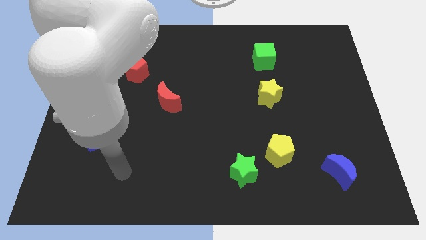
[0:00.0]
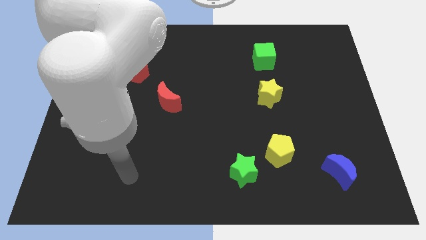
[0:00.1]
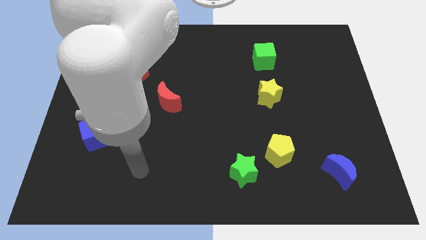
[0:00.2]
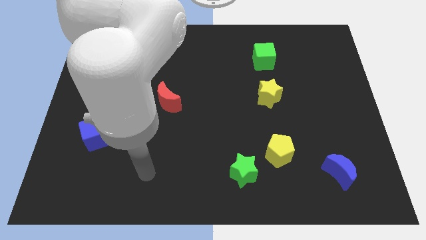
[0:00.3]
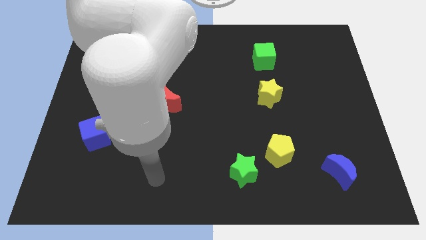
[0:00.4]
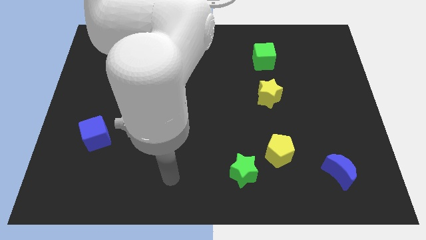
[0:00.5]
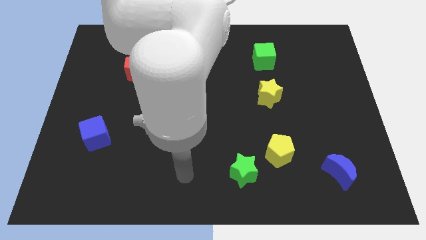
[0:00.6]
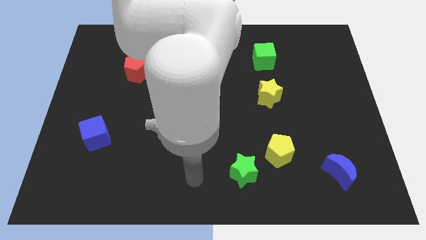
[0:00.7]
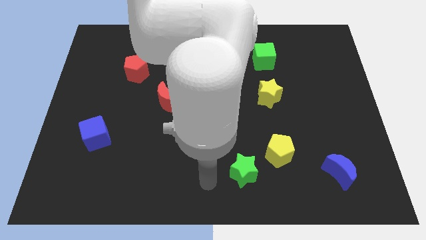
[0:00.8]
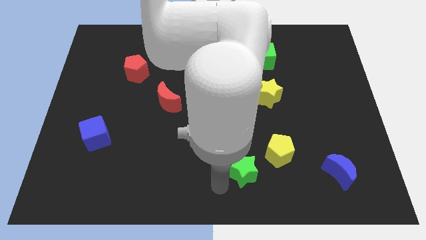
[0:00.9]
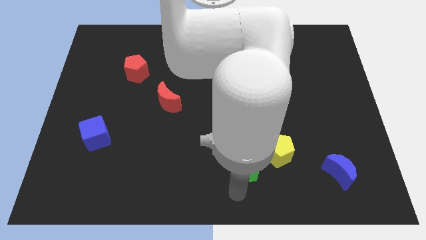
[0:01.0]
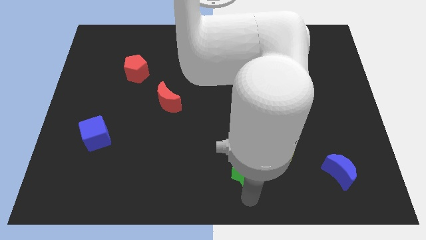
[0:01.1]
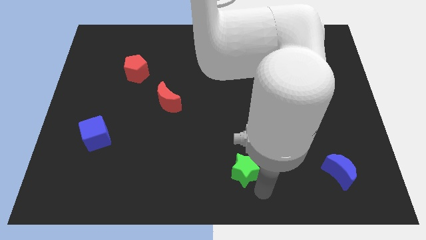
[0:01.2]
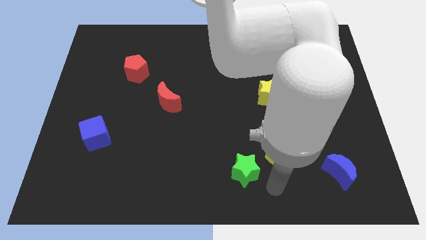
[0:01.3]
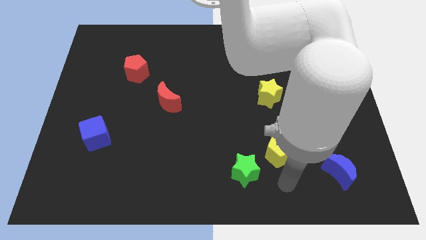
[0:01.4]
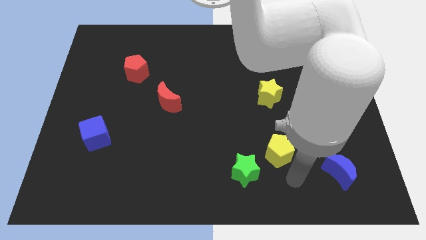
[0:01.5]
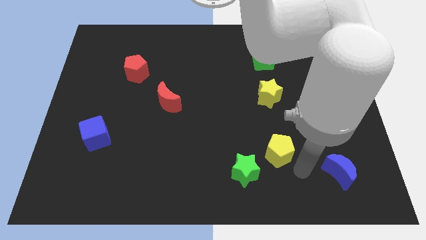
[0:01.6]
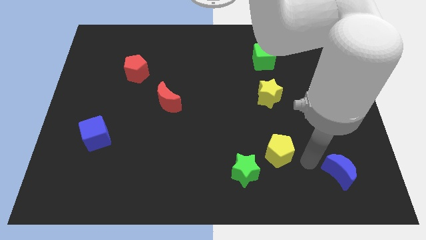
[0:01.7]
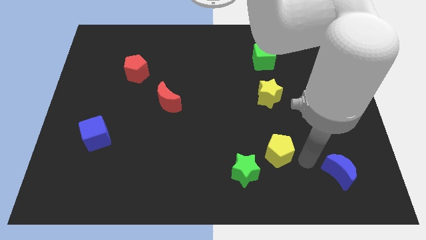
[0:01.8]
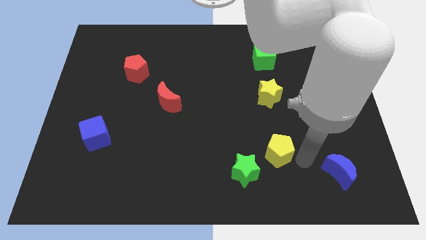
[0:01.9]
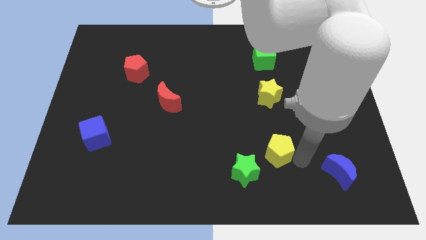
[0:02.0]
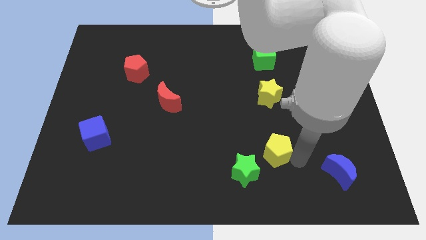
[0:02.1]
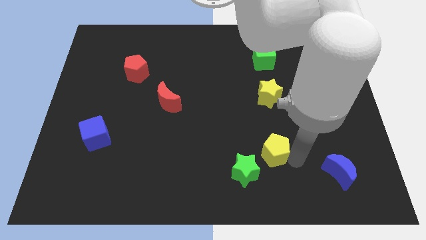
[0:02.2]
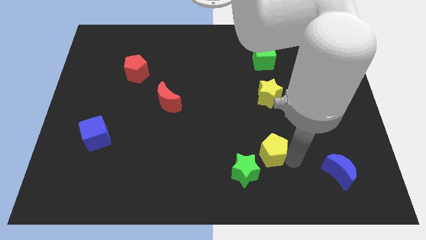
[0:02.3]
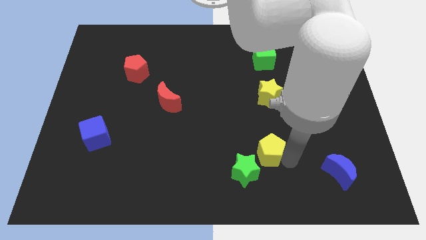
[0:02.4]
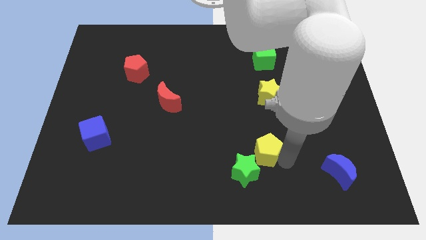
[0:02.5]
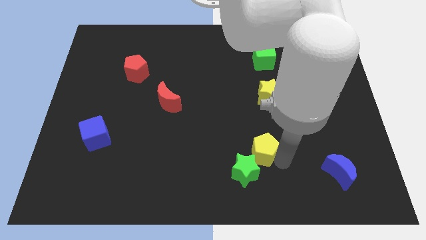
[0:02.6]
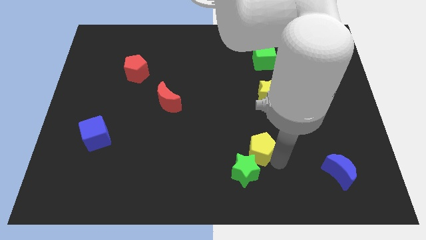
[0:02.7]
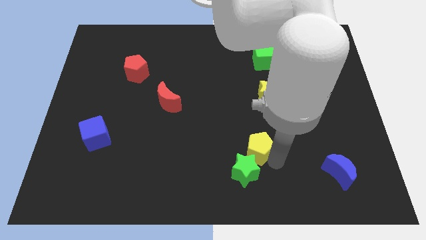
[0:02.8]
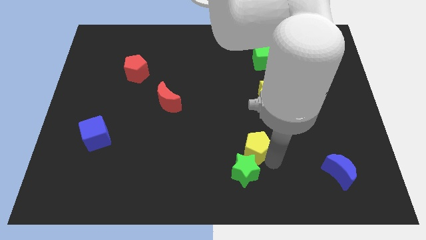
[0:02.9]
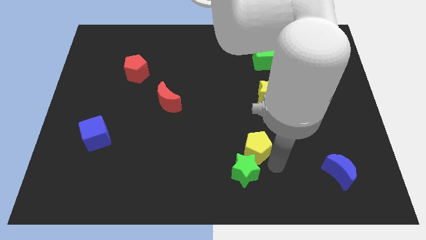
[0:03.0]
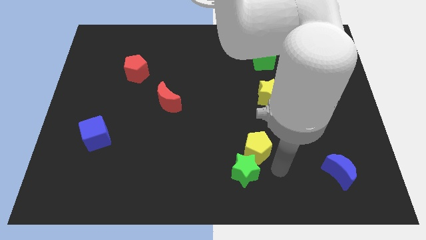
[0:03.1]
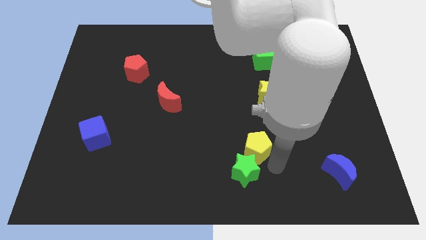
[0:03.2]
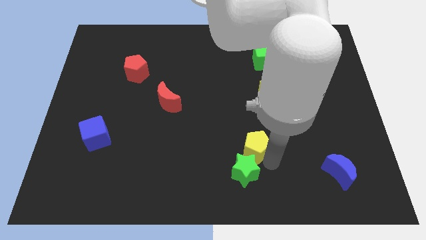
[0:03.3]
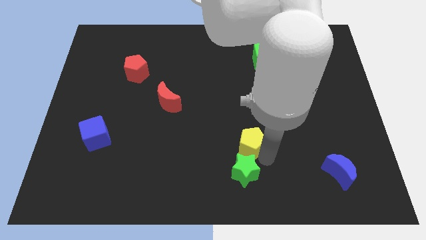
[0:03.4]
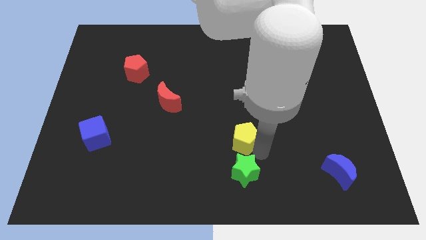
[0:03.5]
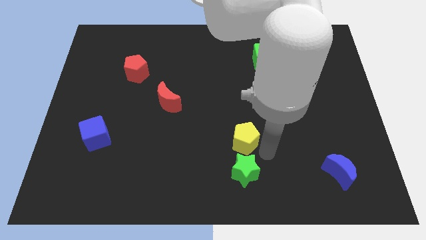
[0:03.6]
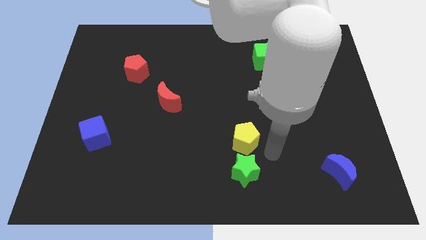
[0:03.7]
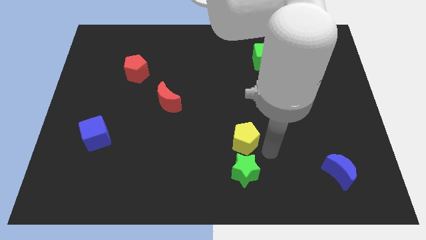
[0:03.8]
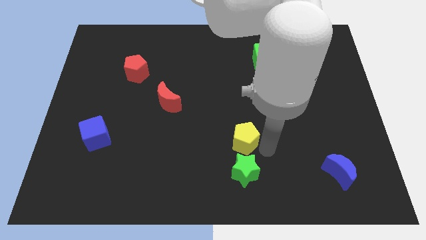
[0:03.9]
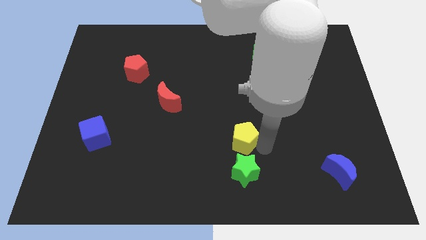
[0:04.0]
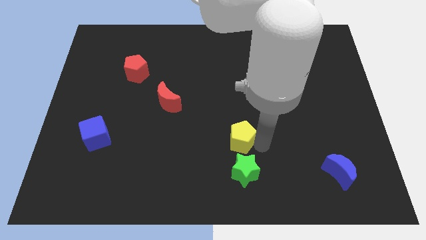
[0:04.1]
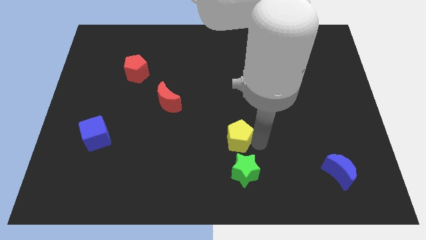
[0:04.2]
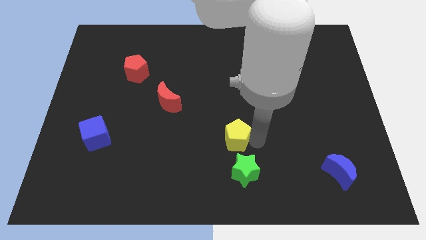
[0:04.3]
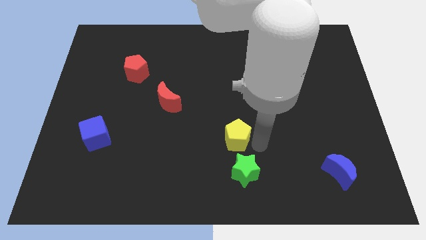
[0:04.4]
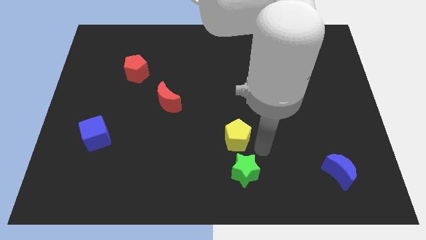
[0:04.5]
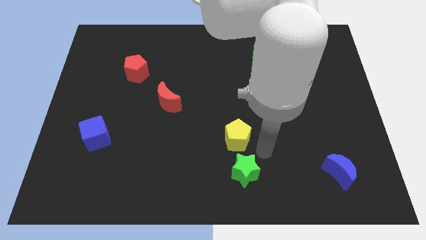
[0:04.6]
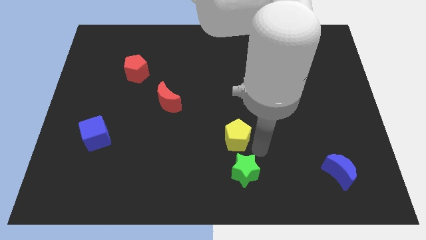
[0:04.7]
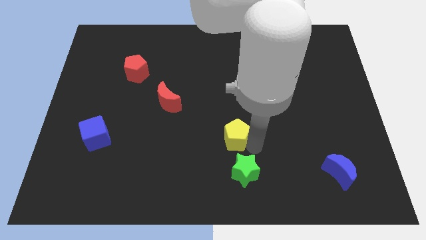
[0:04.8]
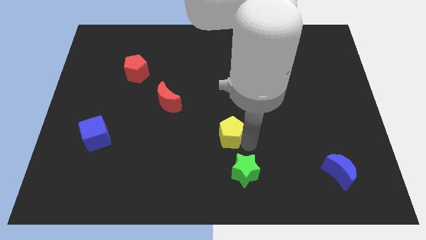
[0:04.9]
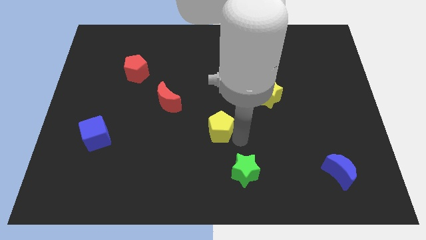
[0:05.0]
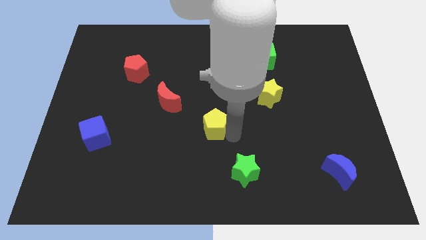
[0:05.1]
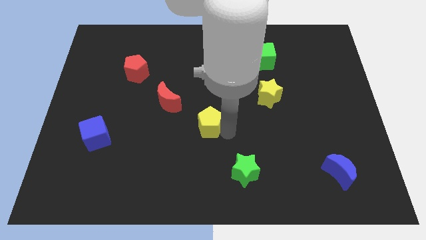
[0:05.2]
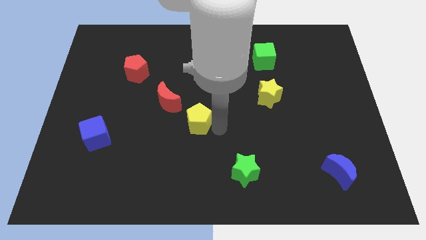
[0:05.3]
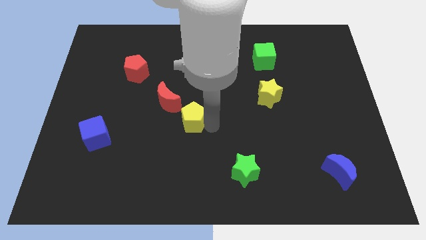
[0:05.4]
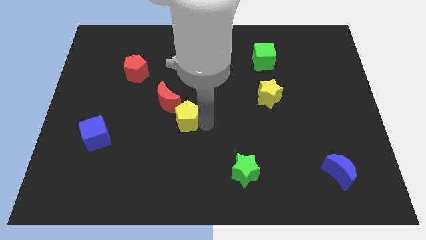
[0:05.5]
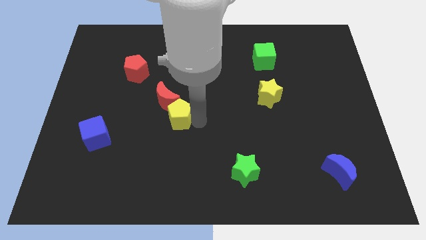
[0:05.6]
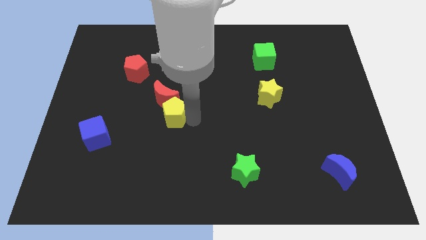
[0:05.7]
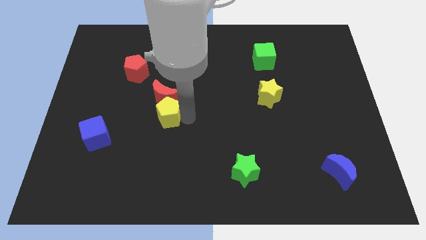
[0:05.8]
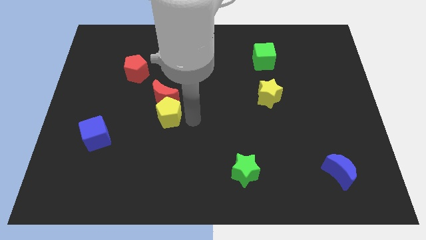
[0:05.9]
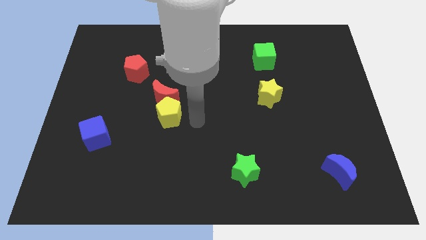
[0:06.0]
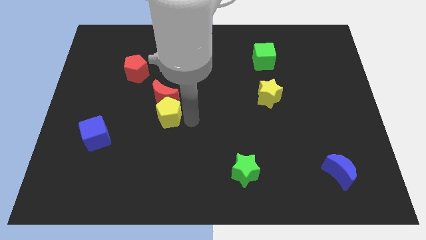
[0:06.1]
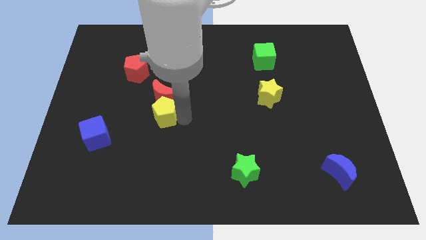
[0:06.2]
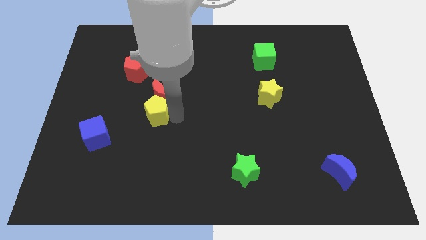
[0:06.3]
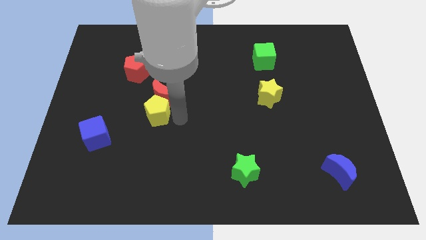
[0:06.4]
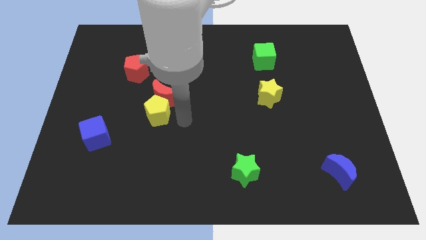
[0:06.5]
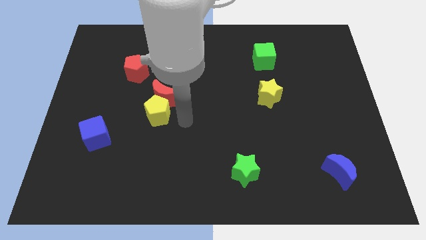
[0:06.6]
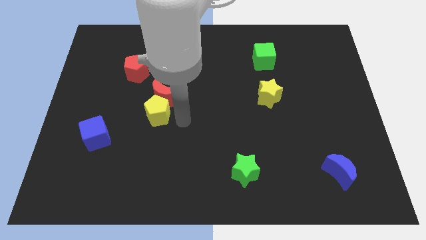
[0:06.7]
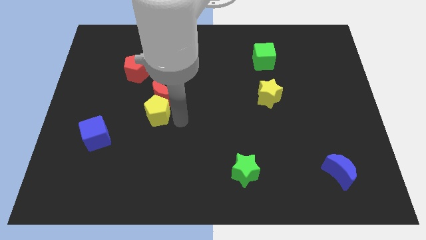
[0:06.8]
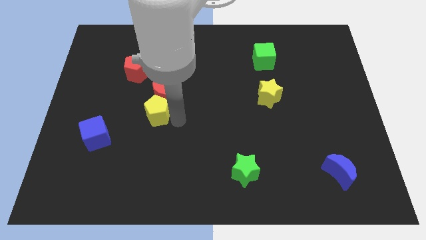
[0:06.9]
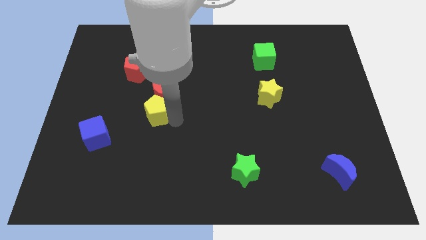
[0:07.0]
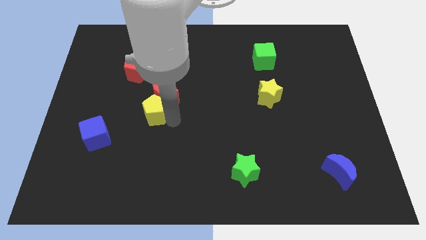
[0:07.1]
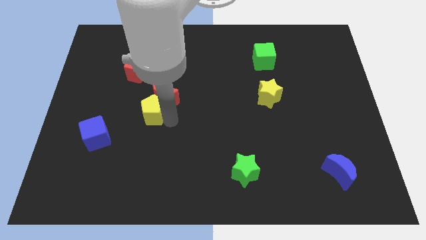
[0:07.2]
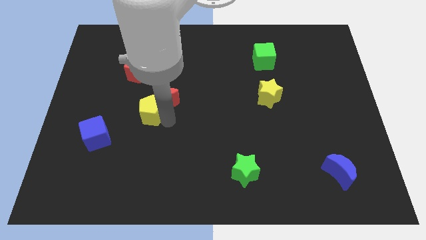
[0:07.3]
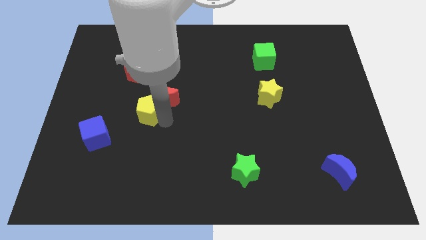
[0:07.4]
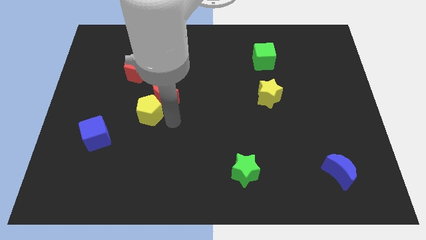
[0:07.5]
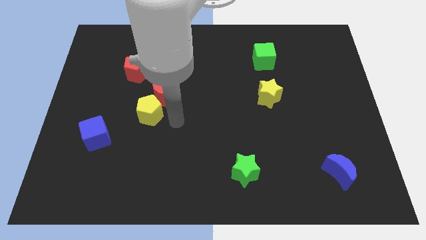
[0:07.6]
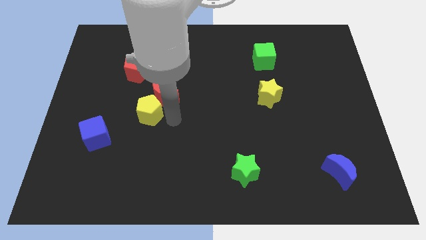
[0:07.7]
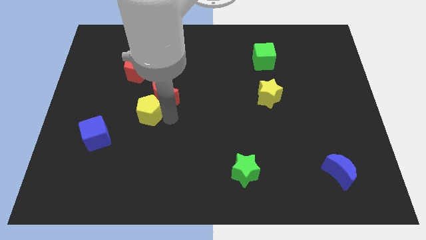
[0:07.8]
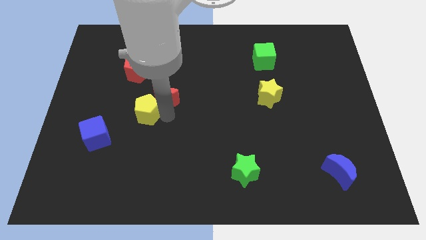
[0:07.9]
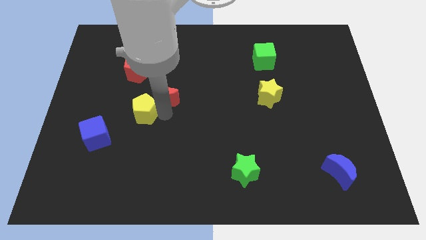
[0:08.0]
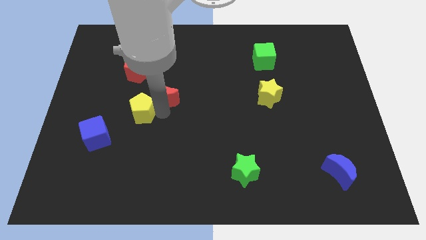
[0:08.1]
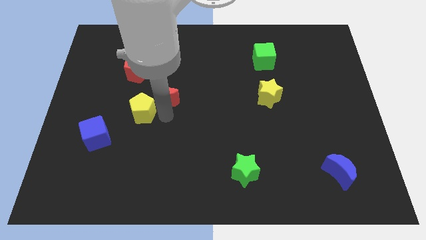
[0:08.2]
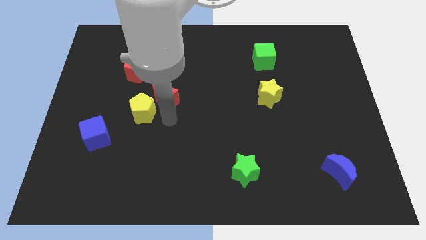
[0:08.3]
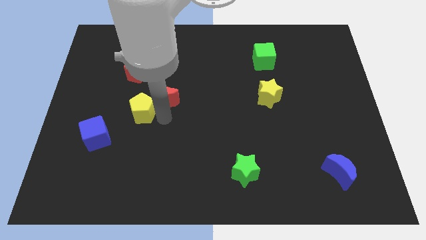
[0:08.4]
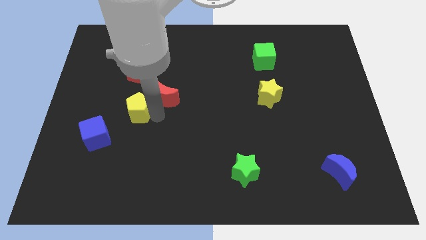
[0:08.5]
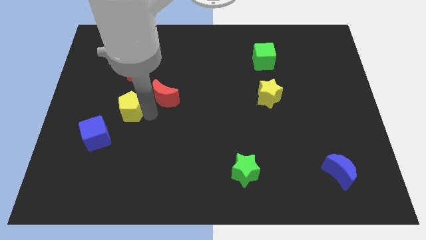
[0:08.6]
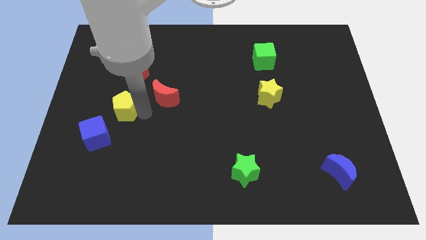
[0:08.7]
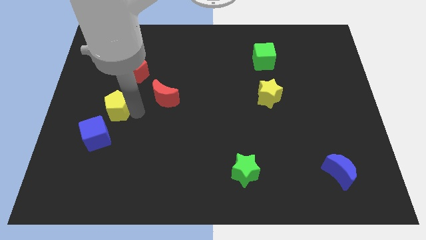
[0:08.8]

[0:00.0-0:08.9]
slide the yellow pentagon above the blue cube
